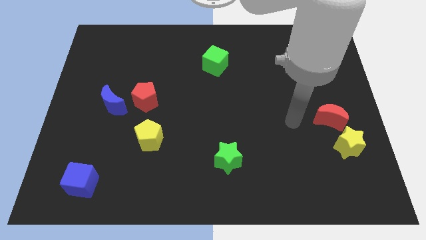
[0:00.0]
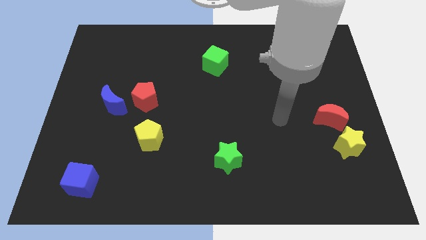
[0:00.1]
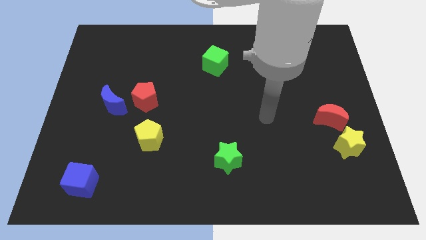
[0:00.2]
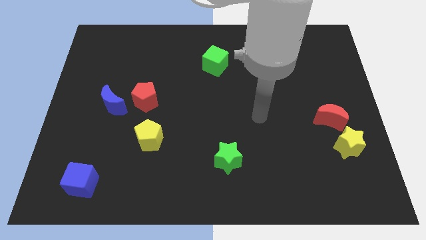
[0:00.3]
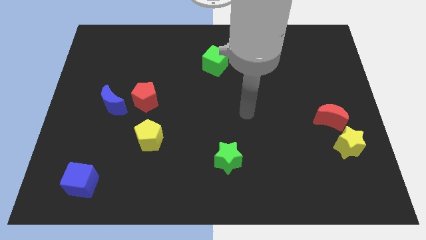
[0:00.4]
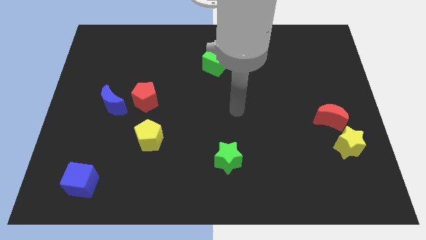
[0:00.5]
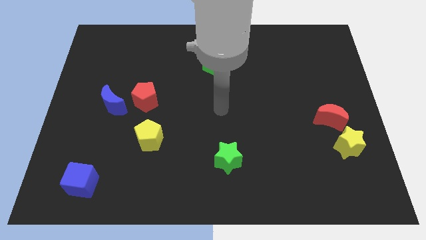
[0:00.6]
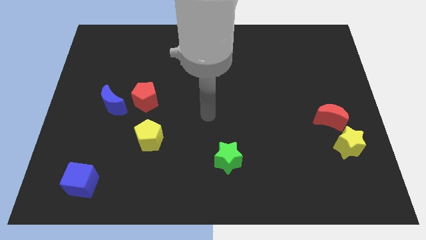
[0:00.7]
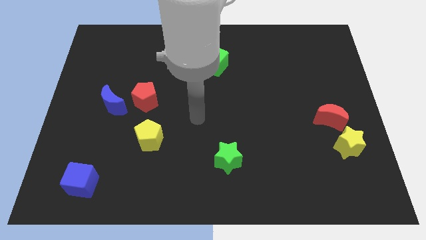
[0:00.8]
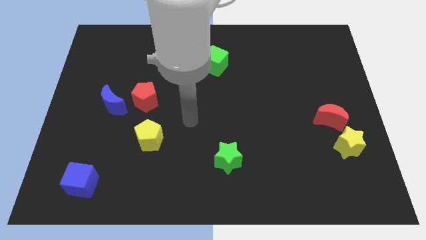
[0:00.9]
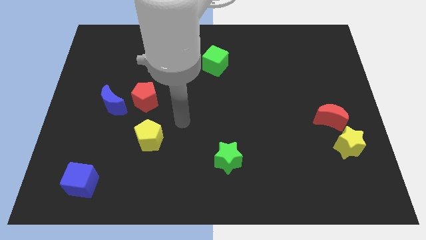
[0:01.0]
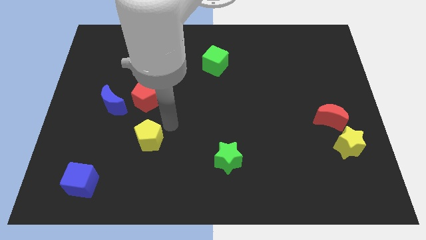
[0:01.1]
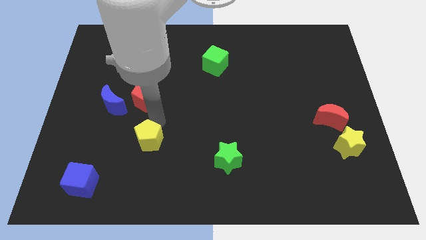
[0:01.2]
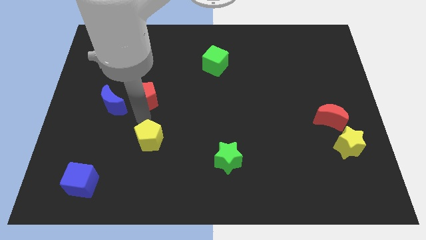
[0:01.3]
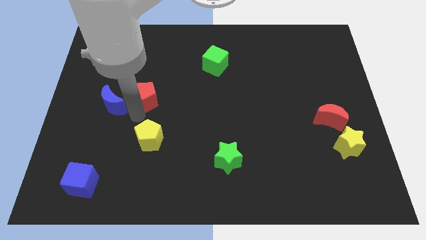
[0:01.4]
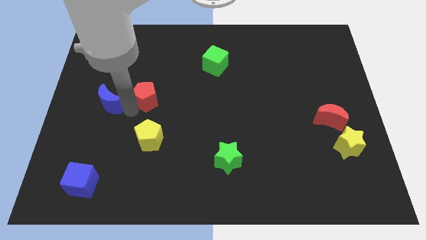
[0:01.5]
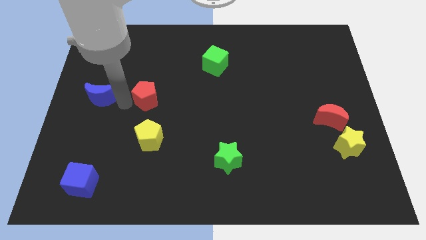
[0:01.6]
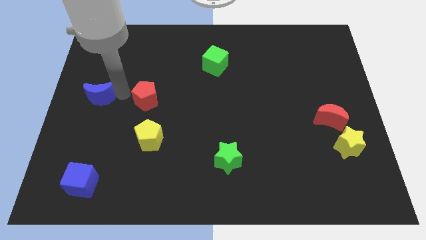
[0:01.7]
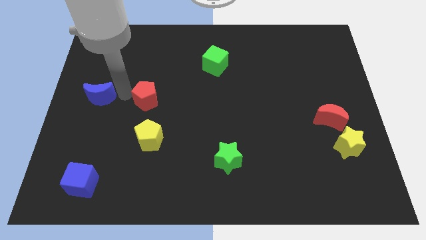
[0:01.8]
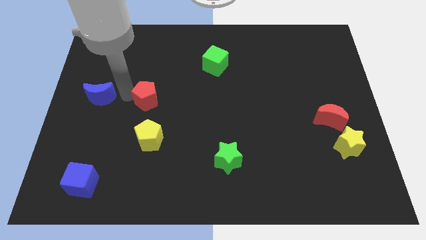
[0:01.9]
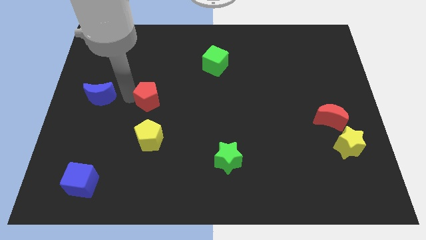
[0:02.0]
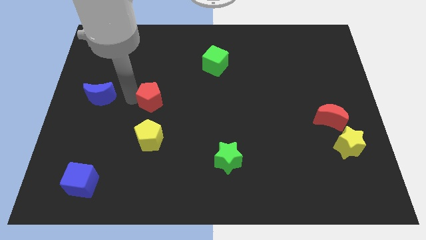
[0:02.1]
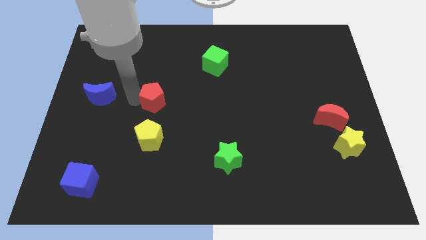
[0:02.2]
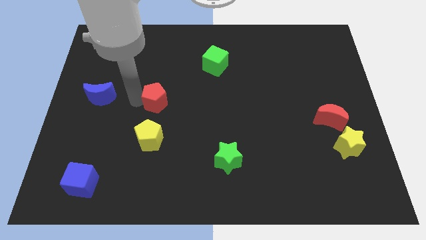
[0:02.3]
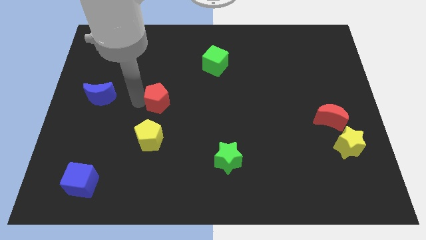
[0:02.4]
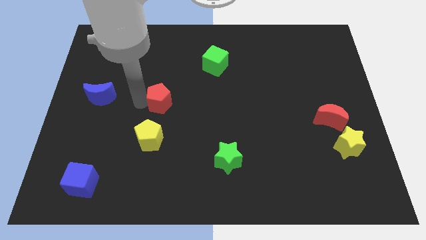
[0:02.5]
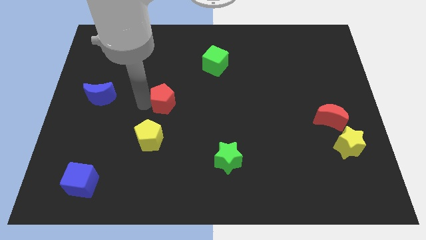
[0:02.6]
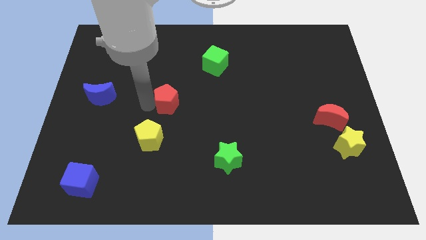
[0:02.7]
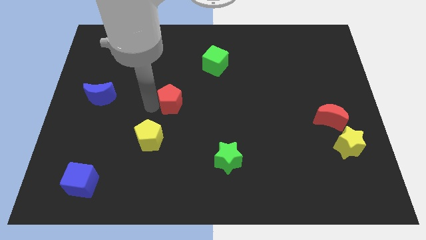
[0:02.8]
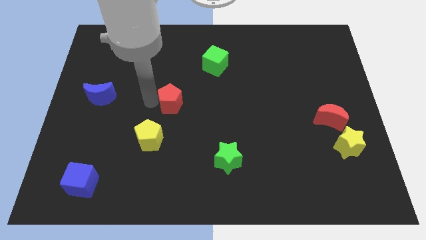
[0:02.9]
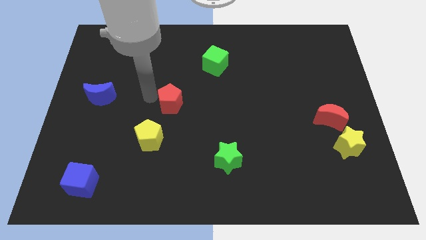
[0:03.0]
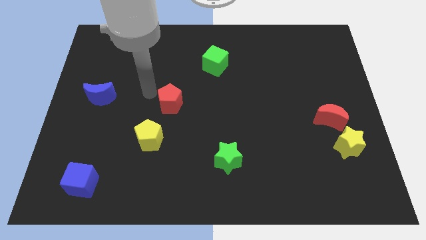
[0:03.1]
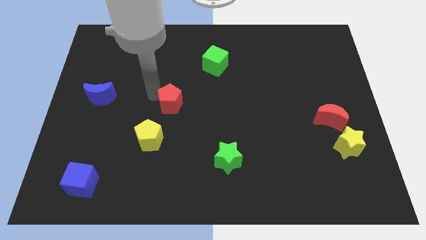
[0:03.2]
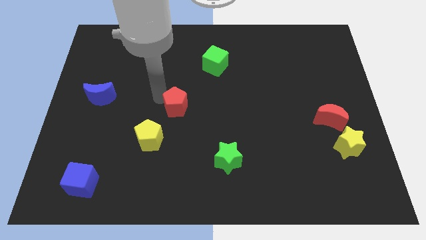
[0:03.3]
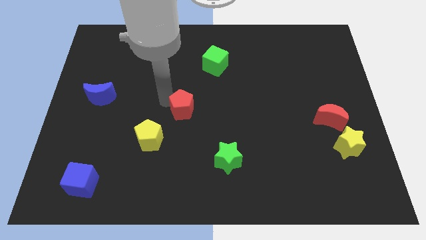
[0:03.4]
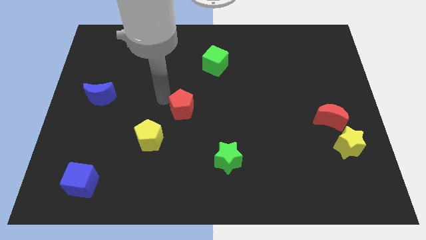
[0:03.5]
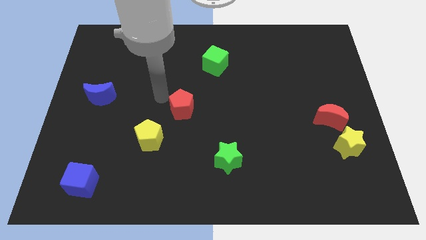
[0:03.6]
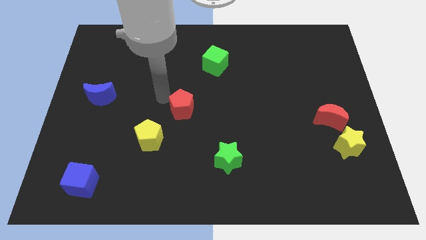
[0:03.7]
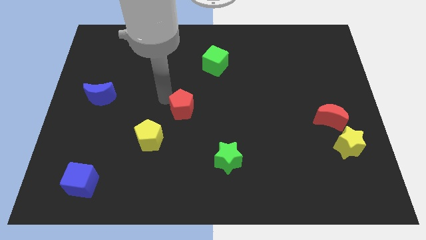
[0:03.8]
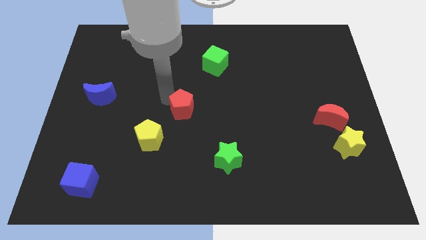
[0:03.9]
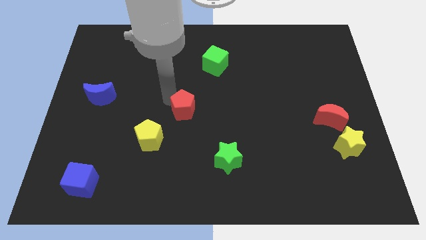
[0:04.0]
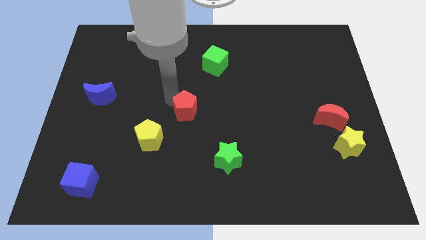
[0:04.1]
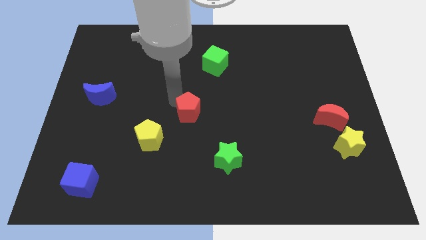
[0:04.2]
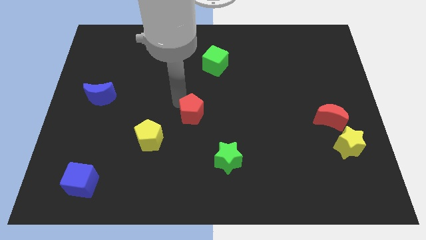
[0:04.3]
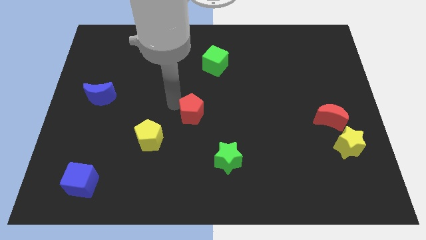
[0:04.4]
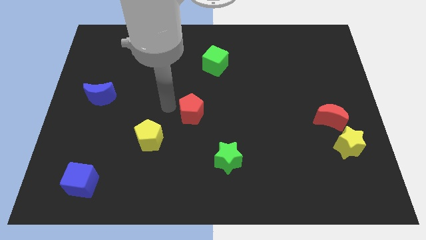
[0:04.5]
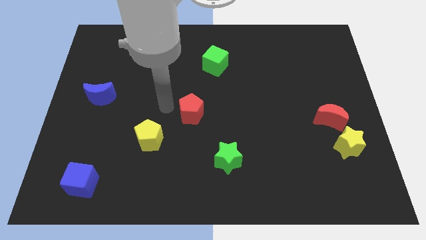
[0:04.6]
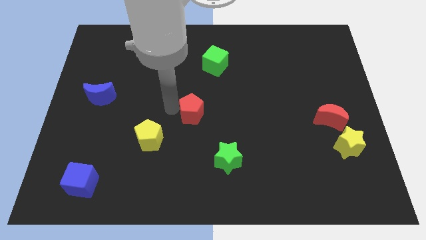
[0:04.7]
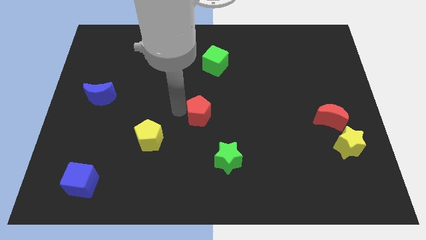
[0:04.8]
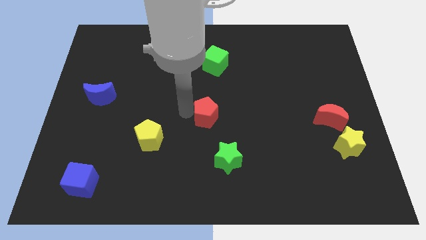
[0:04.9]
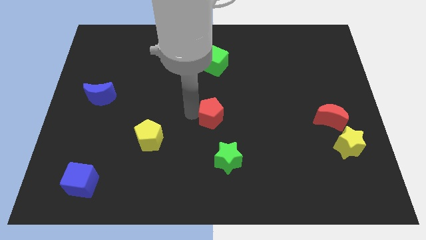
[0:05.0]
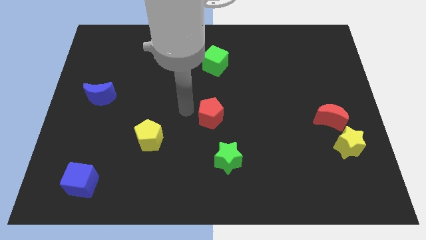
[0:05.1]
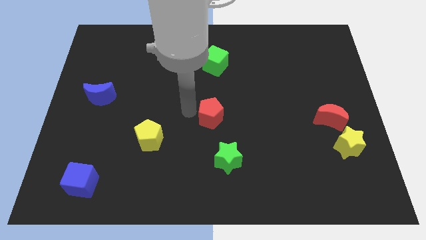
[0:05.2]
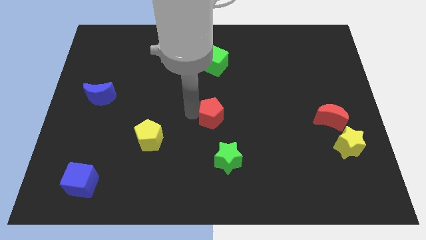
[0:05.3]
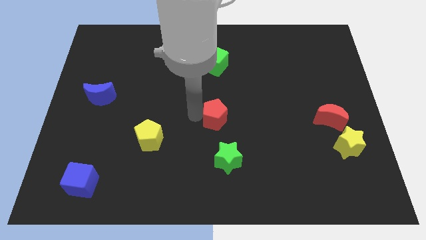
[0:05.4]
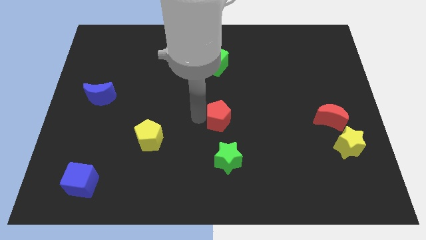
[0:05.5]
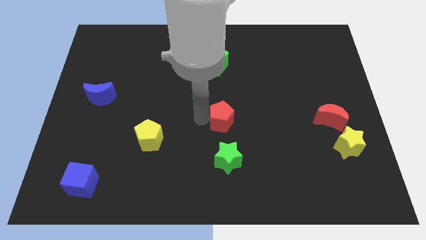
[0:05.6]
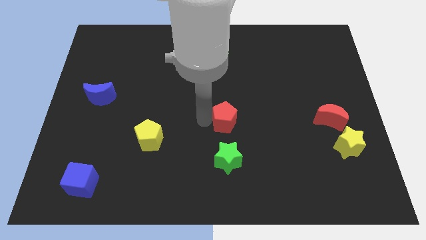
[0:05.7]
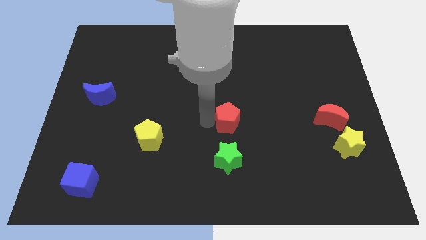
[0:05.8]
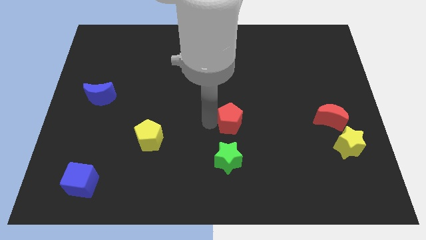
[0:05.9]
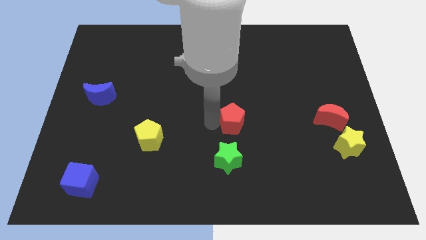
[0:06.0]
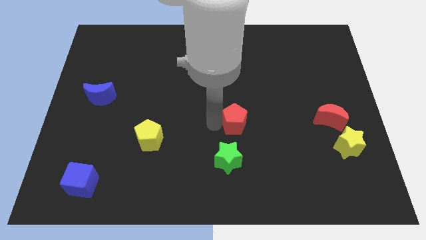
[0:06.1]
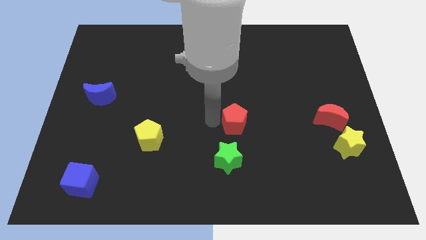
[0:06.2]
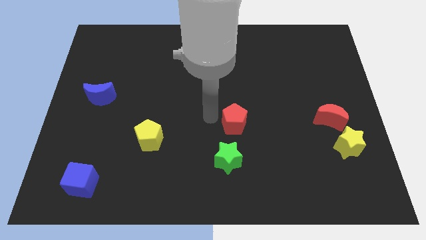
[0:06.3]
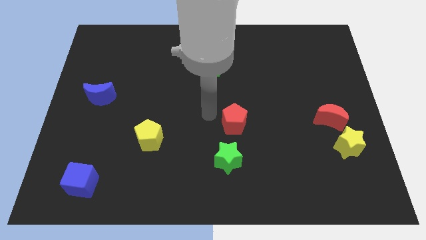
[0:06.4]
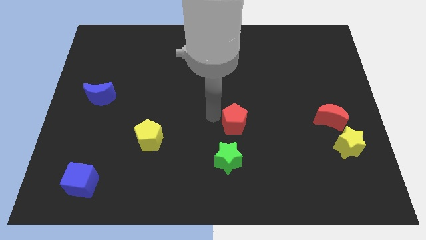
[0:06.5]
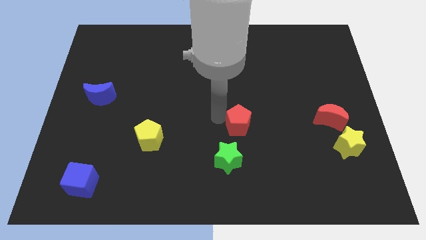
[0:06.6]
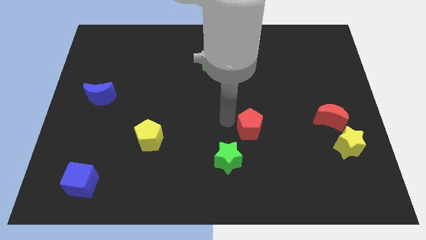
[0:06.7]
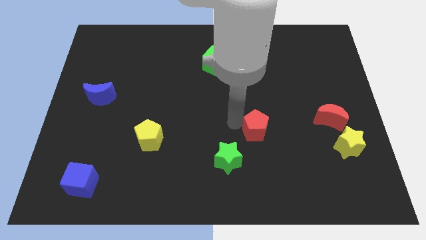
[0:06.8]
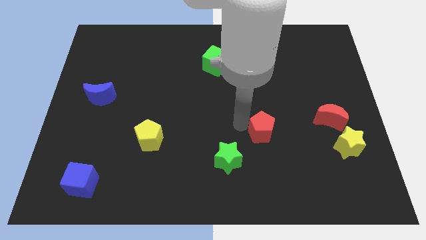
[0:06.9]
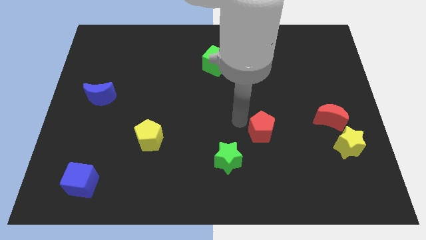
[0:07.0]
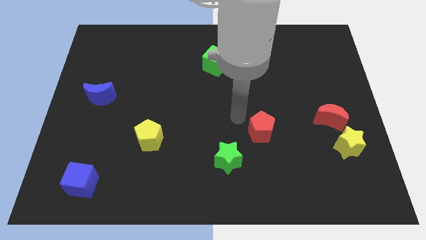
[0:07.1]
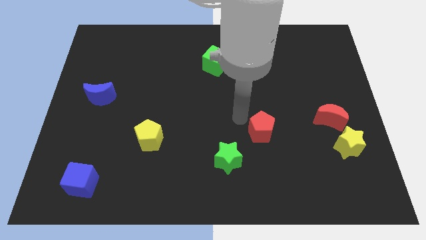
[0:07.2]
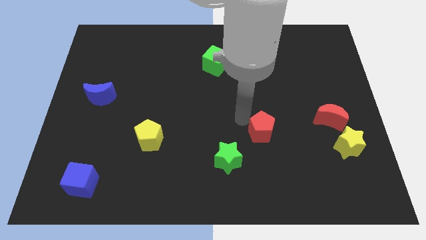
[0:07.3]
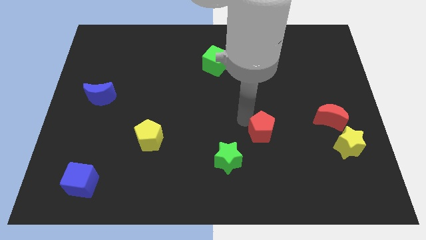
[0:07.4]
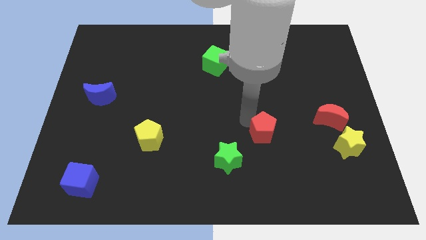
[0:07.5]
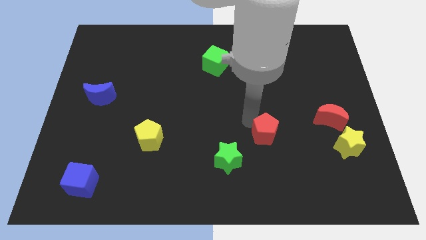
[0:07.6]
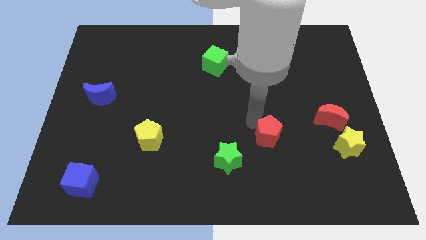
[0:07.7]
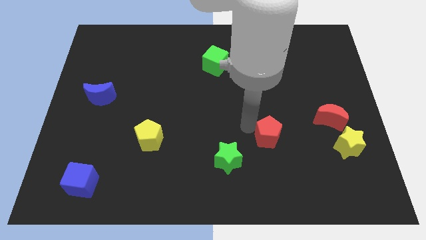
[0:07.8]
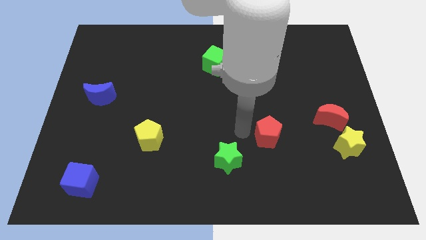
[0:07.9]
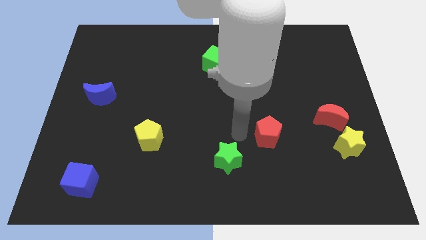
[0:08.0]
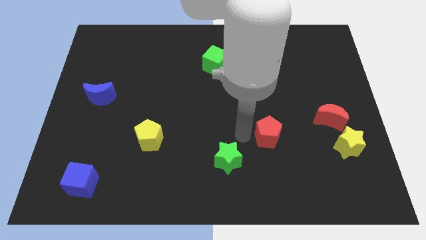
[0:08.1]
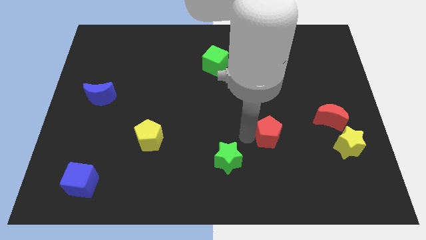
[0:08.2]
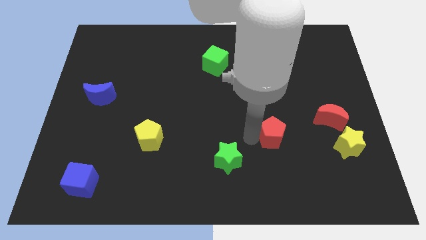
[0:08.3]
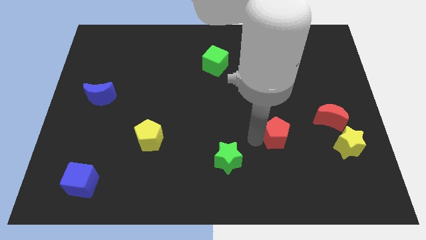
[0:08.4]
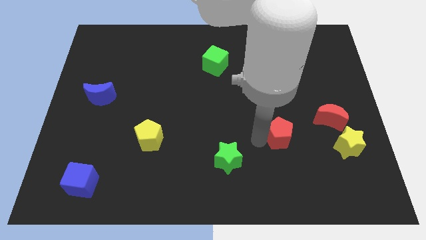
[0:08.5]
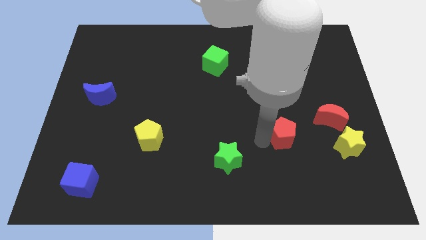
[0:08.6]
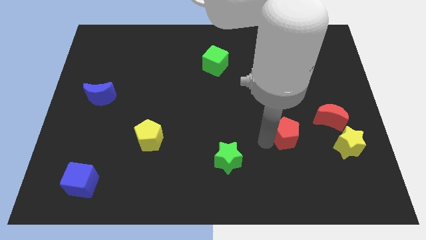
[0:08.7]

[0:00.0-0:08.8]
put the red pentagon to the bottom left of the red moon
